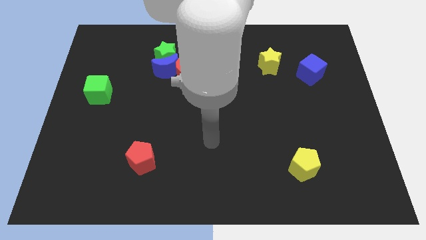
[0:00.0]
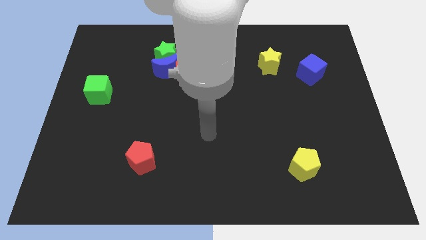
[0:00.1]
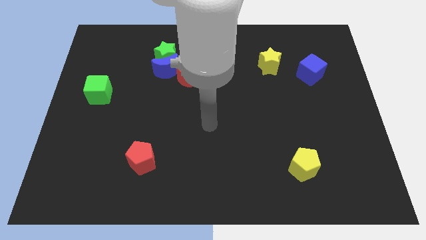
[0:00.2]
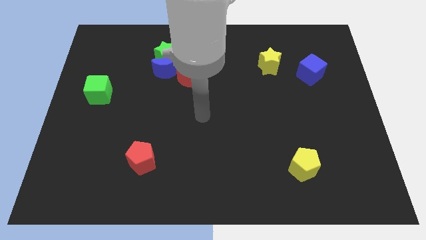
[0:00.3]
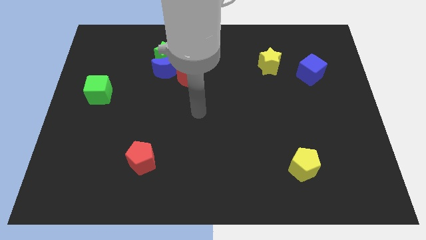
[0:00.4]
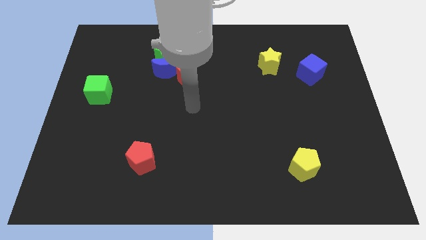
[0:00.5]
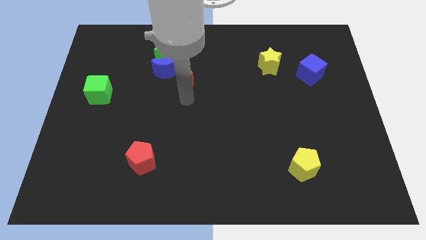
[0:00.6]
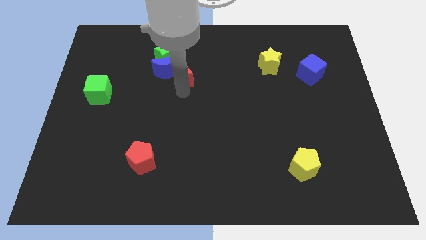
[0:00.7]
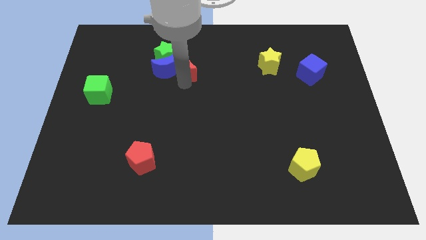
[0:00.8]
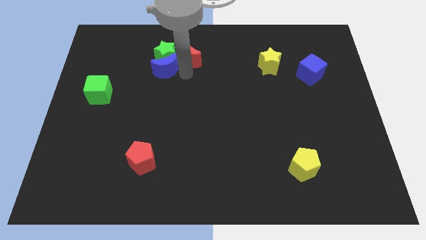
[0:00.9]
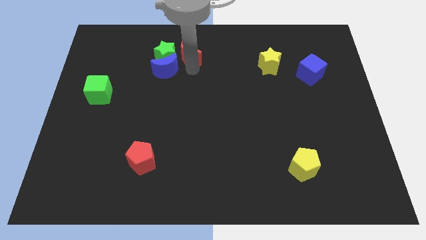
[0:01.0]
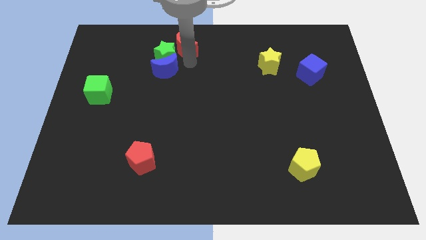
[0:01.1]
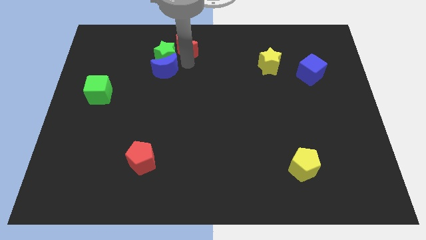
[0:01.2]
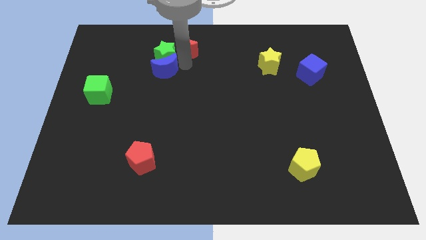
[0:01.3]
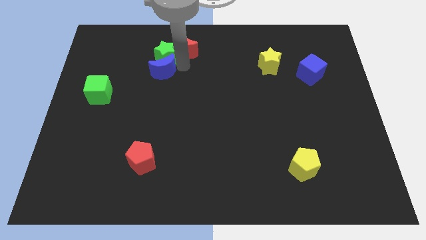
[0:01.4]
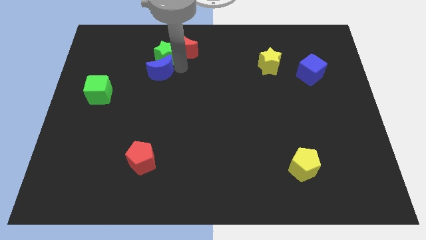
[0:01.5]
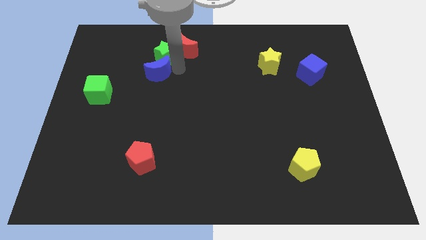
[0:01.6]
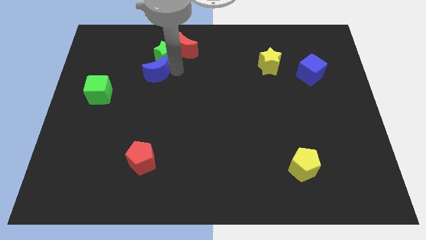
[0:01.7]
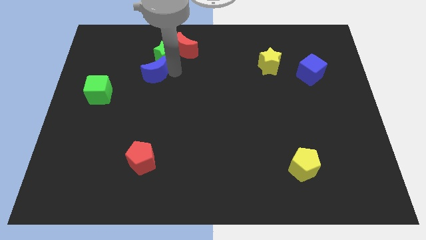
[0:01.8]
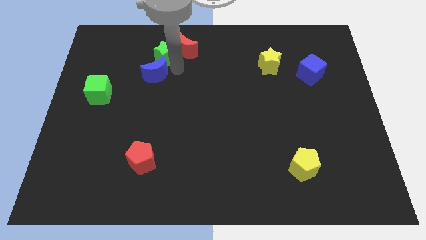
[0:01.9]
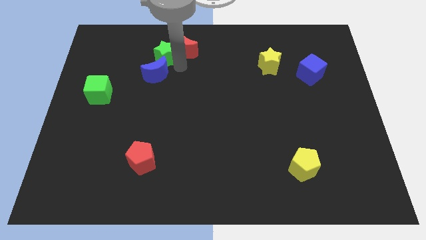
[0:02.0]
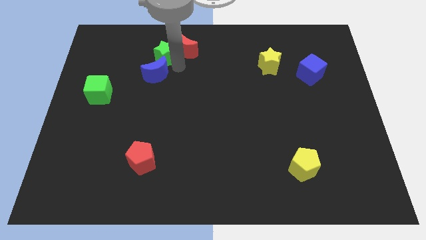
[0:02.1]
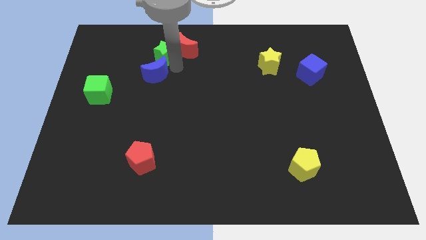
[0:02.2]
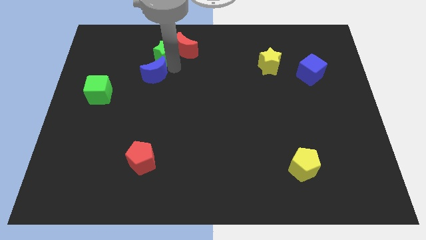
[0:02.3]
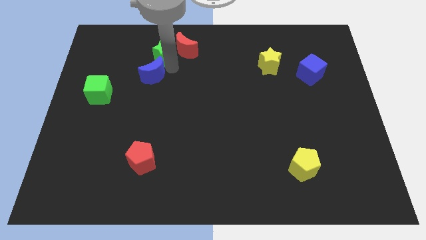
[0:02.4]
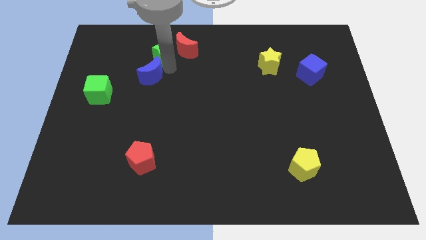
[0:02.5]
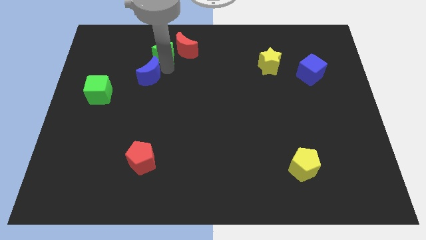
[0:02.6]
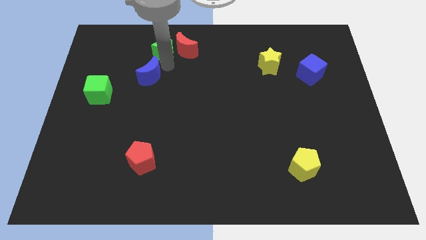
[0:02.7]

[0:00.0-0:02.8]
move the blue moon away from the green star and red moon

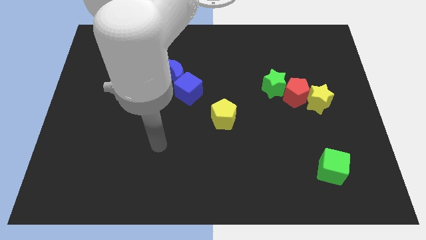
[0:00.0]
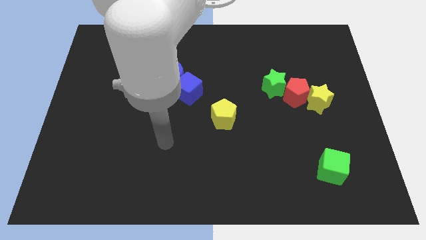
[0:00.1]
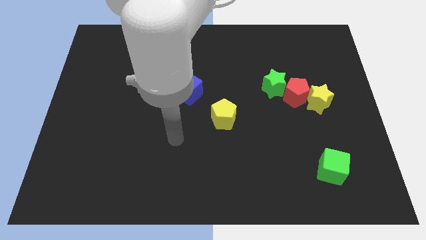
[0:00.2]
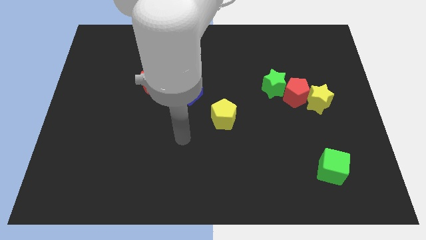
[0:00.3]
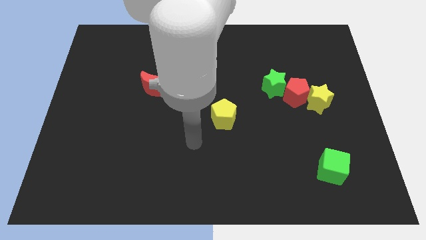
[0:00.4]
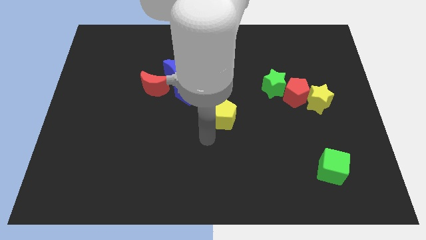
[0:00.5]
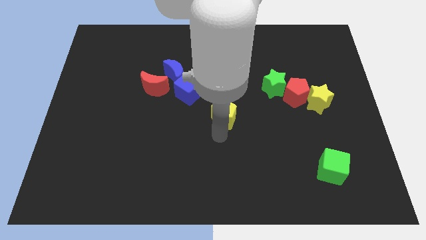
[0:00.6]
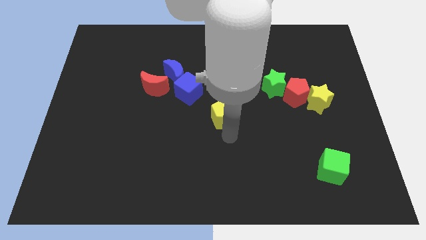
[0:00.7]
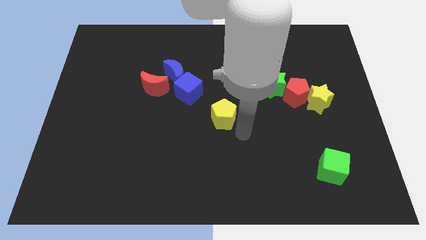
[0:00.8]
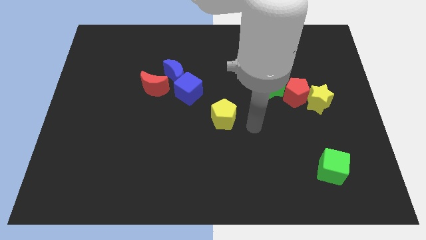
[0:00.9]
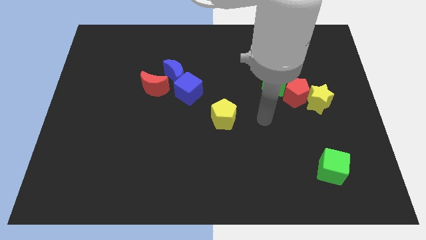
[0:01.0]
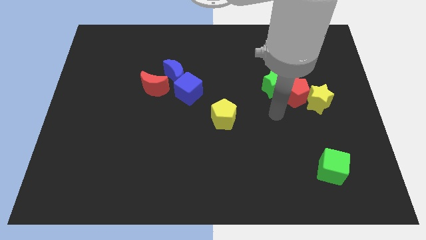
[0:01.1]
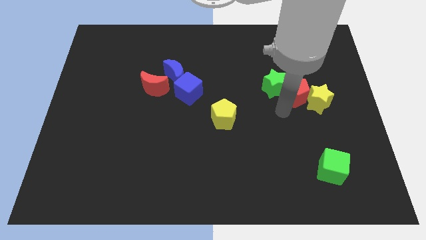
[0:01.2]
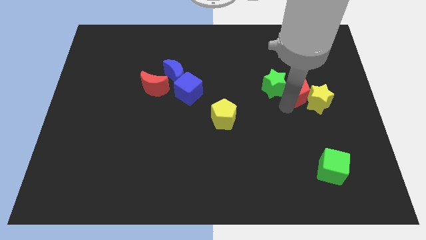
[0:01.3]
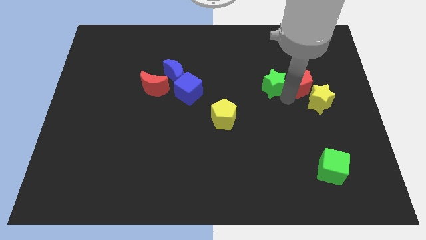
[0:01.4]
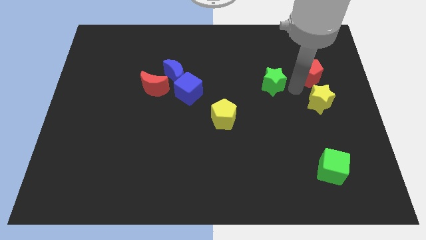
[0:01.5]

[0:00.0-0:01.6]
pull the green star apart from the red pentagon

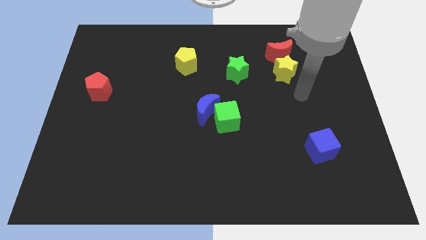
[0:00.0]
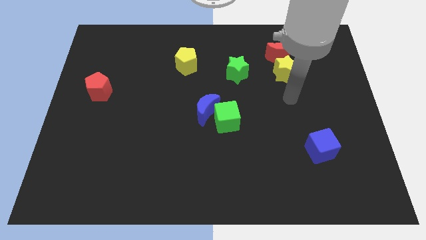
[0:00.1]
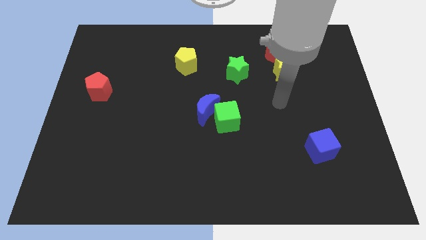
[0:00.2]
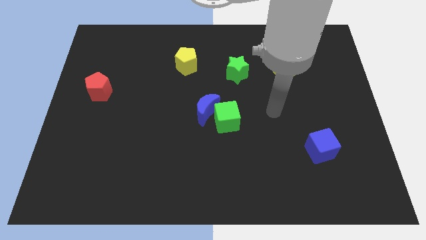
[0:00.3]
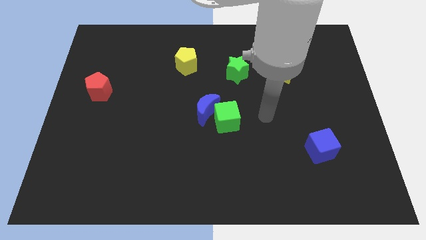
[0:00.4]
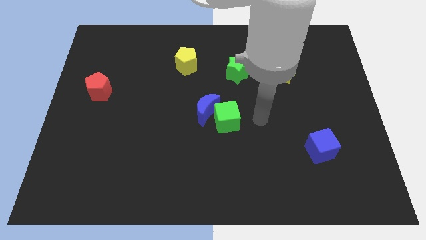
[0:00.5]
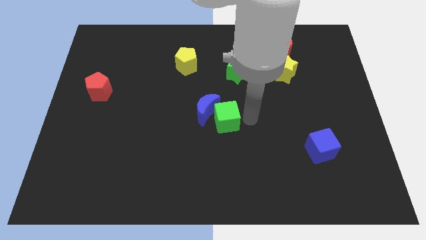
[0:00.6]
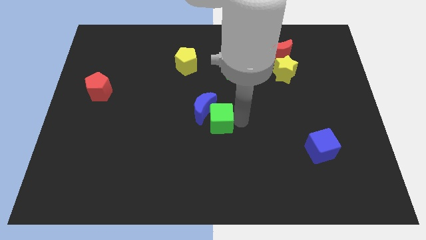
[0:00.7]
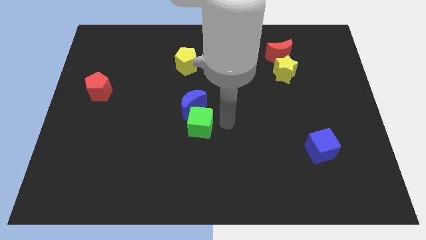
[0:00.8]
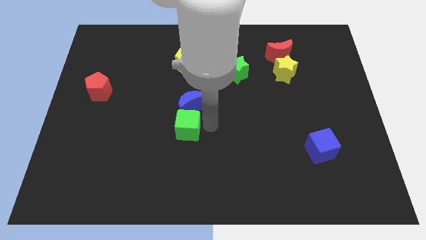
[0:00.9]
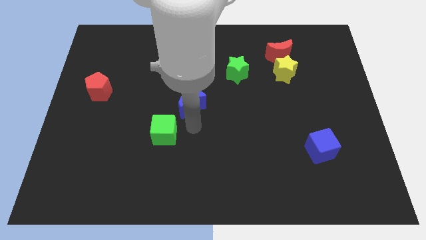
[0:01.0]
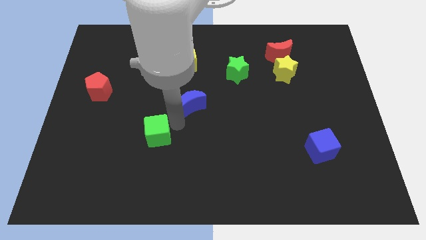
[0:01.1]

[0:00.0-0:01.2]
pull the blue moon apart from the green cube

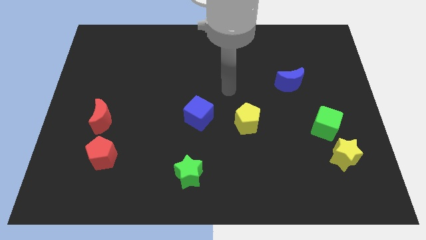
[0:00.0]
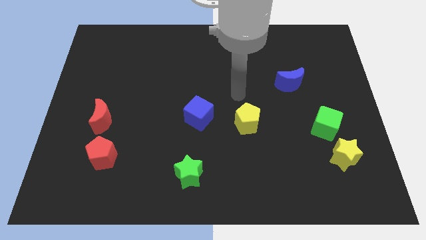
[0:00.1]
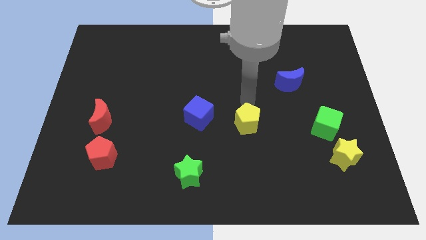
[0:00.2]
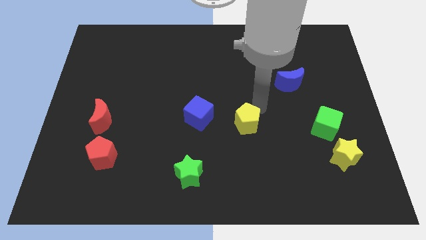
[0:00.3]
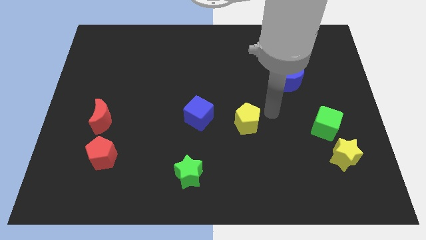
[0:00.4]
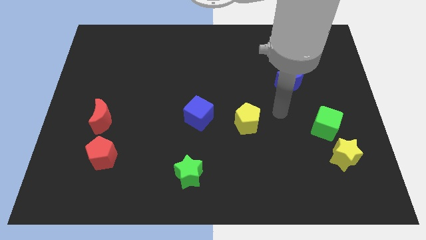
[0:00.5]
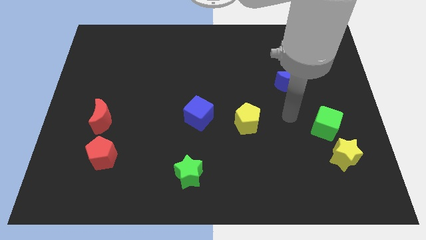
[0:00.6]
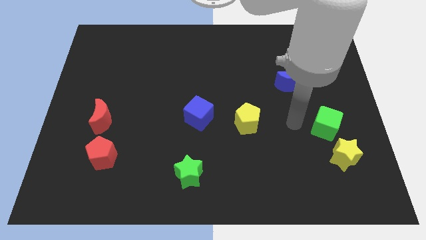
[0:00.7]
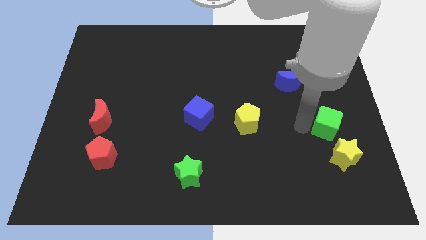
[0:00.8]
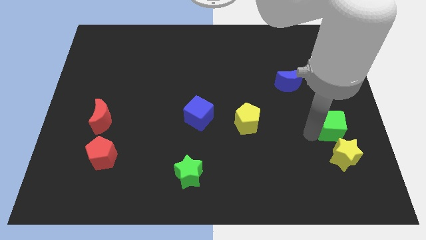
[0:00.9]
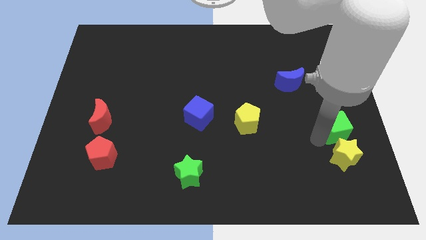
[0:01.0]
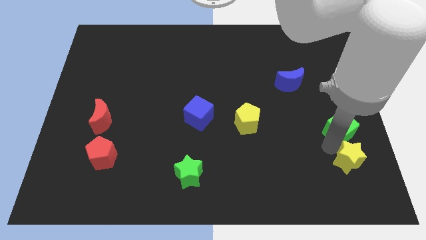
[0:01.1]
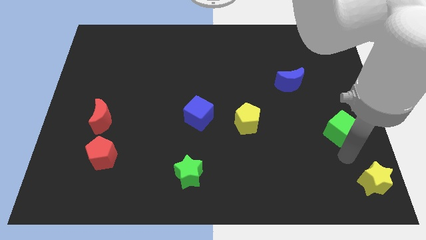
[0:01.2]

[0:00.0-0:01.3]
separate the green cube from the yellow star

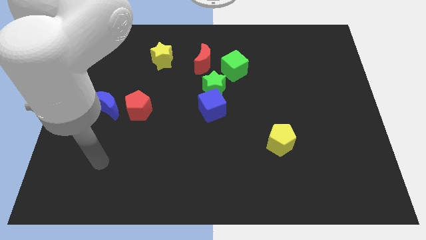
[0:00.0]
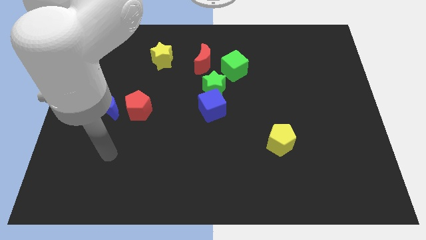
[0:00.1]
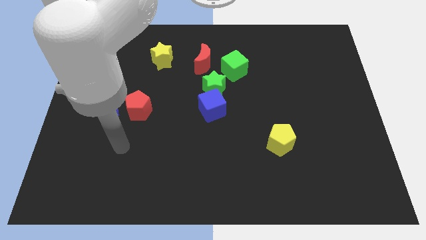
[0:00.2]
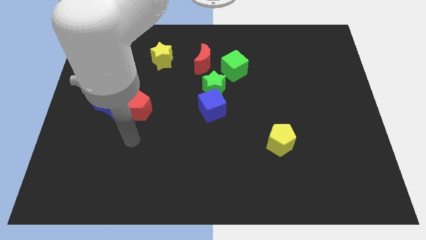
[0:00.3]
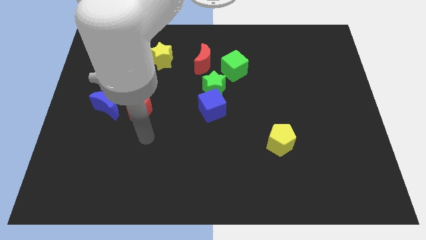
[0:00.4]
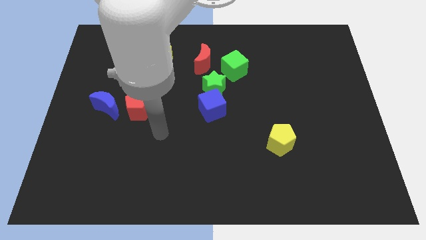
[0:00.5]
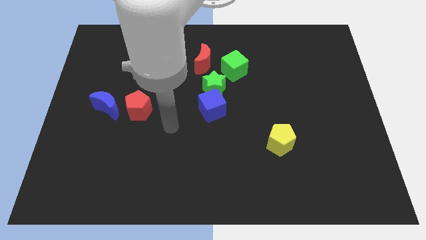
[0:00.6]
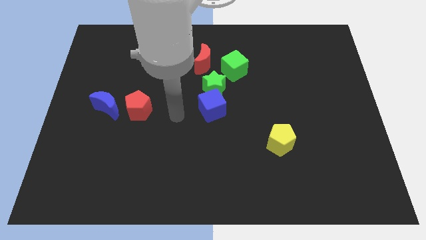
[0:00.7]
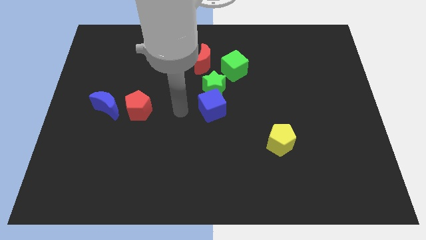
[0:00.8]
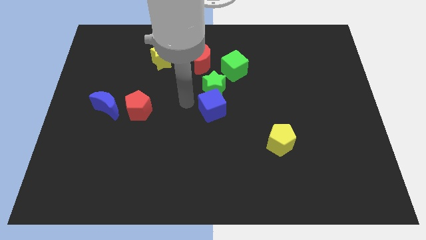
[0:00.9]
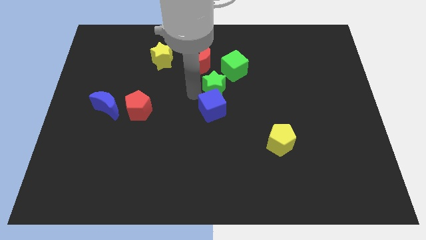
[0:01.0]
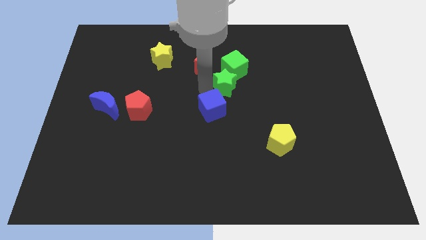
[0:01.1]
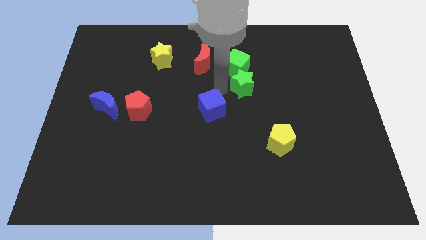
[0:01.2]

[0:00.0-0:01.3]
move the blue cube away from the green star

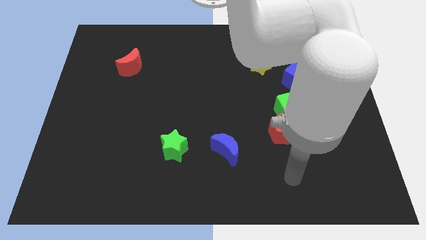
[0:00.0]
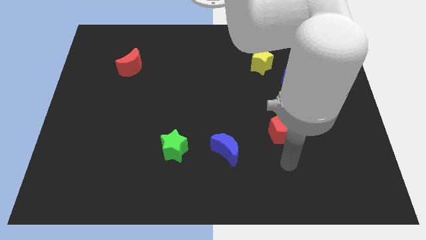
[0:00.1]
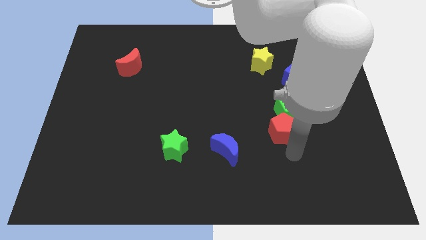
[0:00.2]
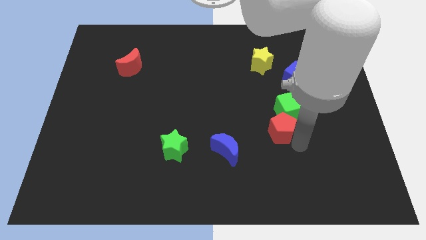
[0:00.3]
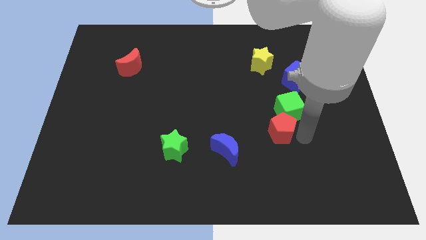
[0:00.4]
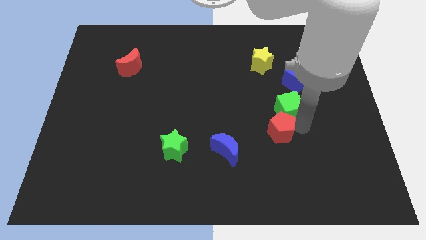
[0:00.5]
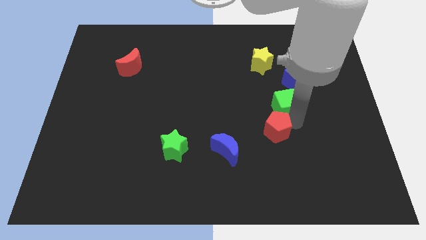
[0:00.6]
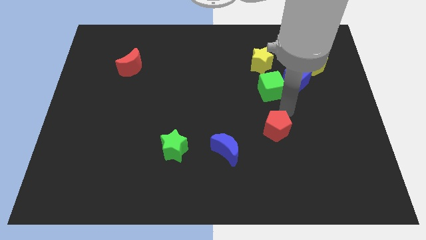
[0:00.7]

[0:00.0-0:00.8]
pull the red pentagon apart from the green cube

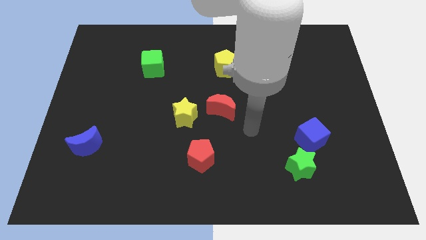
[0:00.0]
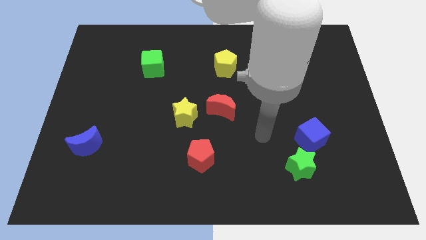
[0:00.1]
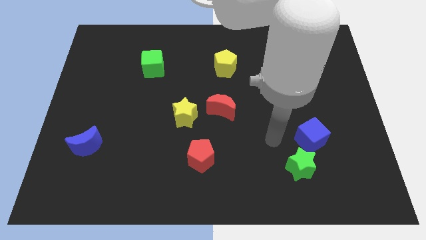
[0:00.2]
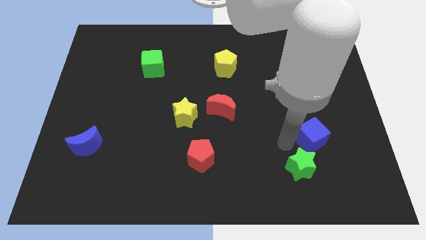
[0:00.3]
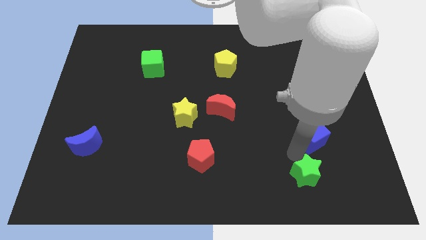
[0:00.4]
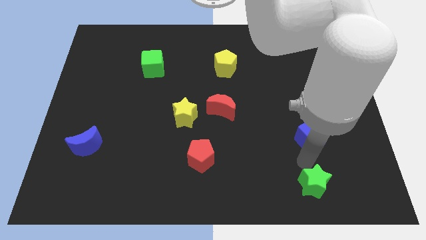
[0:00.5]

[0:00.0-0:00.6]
pull the blue cube apart from the green star
